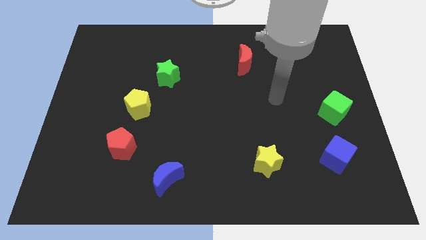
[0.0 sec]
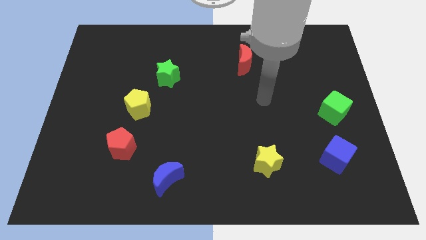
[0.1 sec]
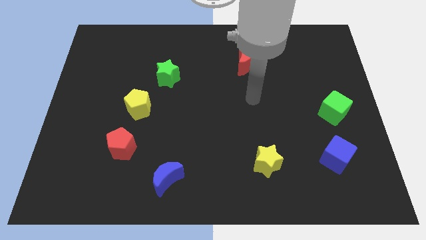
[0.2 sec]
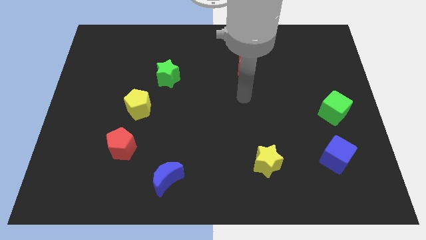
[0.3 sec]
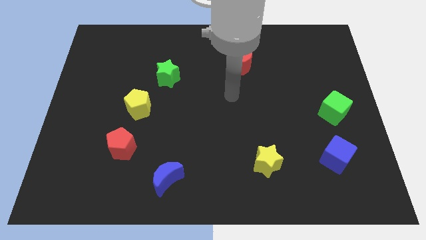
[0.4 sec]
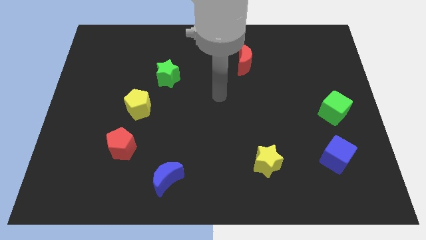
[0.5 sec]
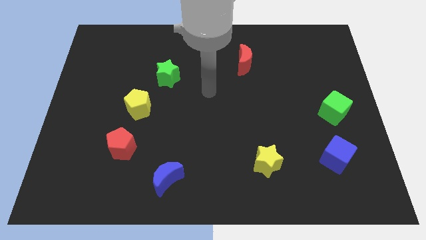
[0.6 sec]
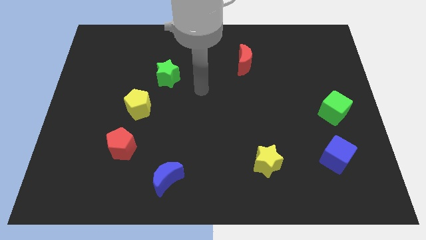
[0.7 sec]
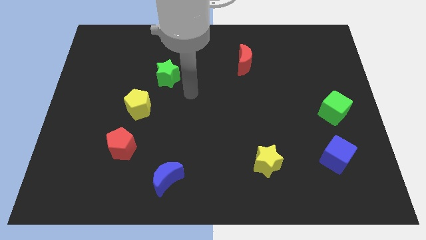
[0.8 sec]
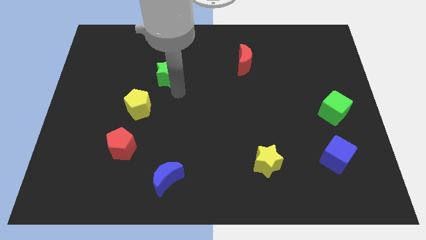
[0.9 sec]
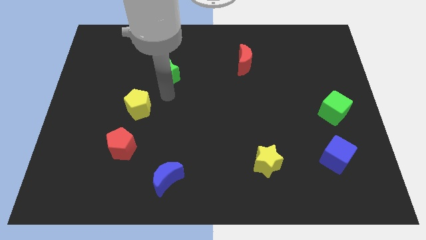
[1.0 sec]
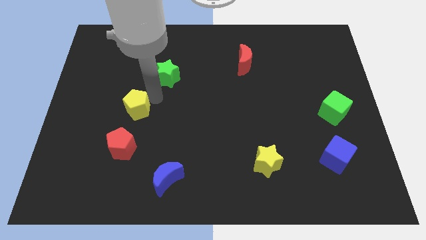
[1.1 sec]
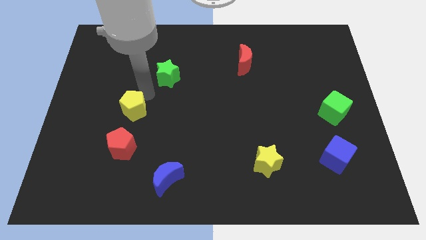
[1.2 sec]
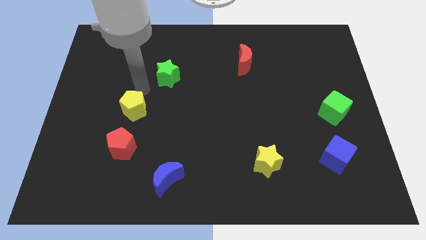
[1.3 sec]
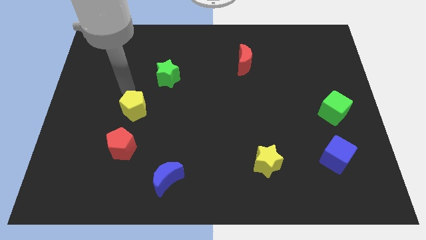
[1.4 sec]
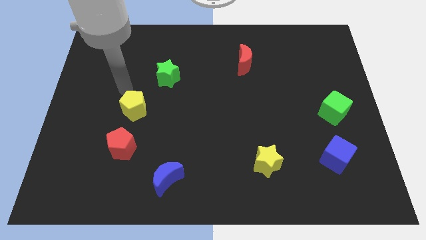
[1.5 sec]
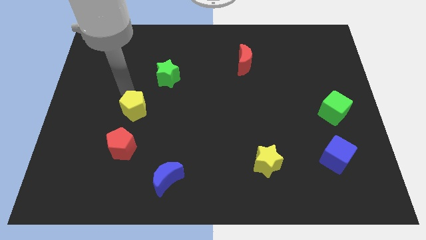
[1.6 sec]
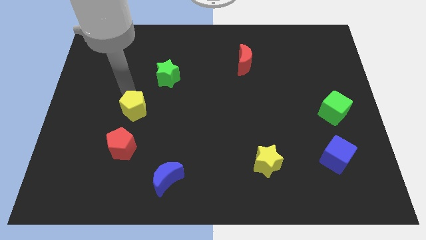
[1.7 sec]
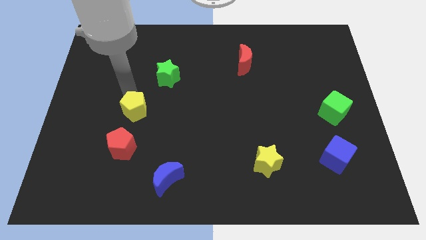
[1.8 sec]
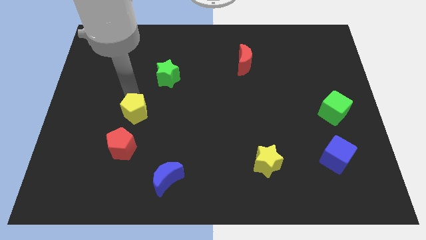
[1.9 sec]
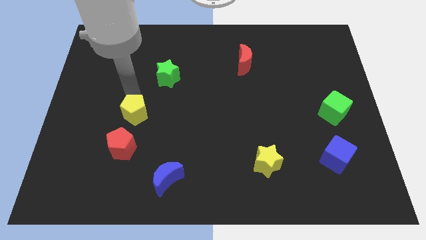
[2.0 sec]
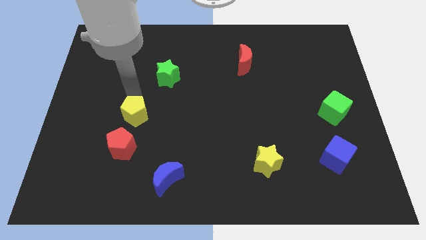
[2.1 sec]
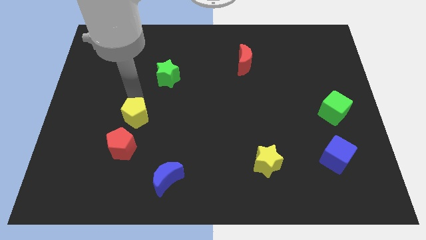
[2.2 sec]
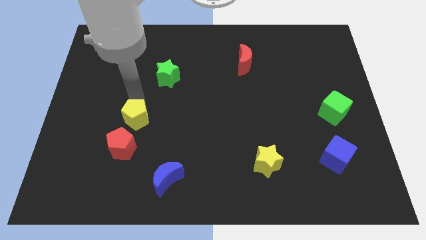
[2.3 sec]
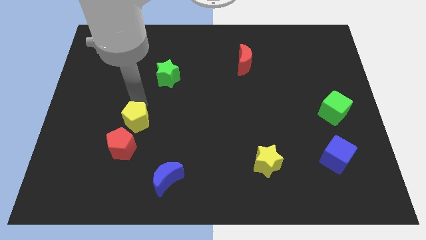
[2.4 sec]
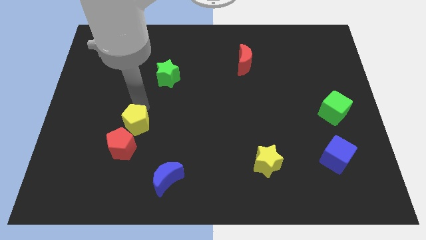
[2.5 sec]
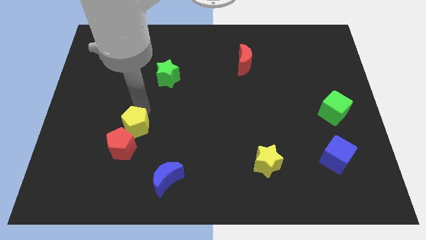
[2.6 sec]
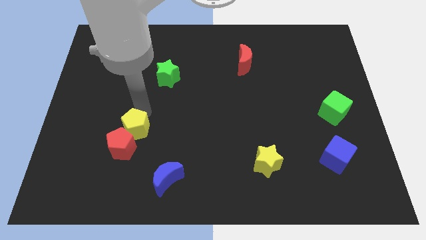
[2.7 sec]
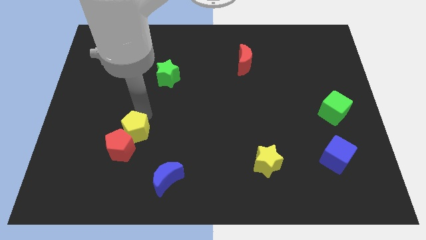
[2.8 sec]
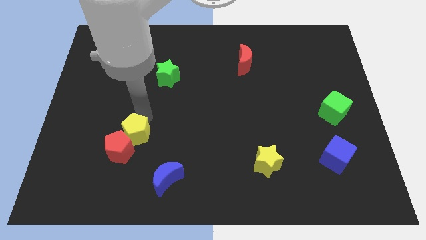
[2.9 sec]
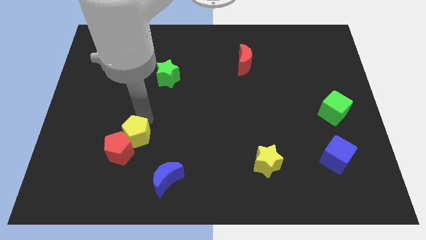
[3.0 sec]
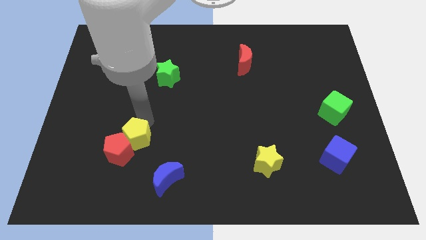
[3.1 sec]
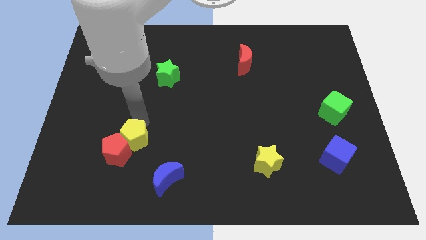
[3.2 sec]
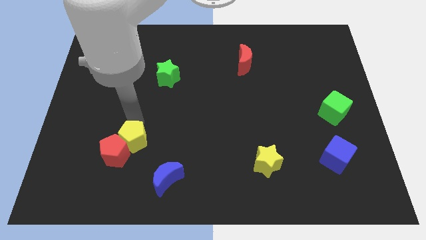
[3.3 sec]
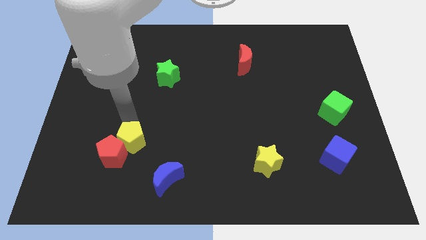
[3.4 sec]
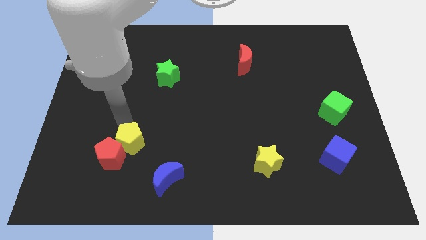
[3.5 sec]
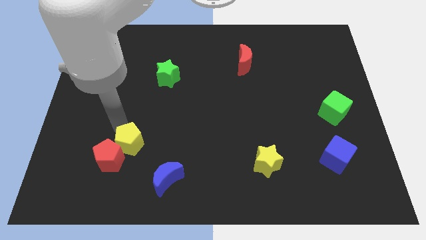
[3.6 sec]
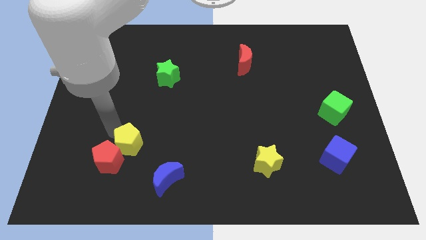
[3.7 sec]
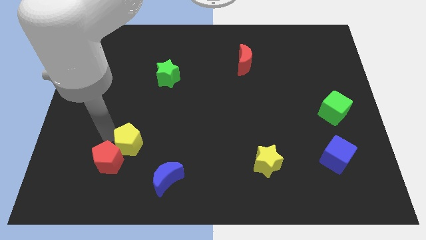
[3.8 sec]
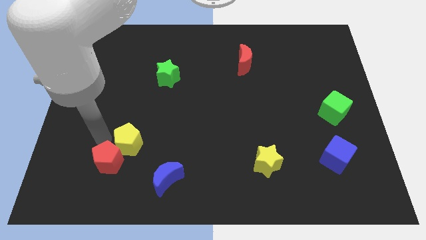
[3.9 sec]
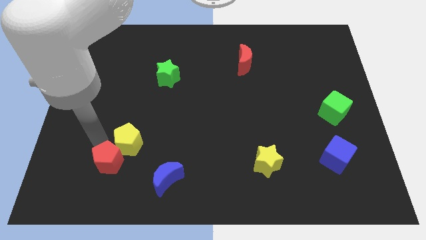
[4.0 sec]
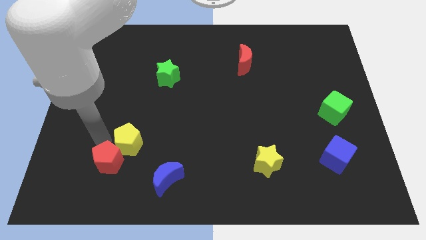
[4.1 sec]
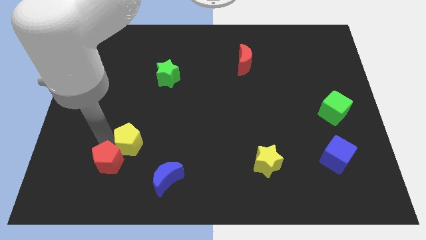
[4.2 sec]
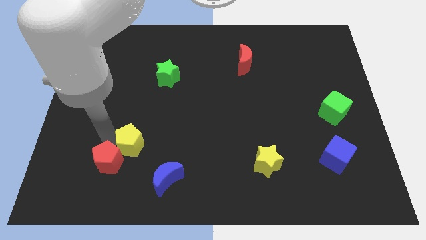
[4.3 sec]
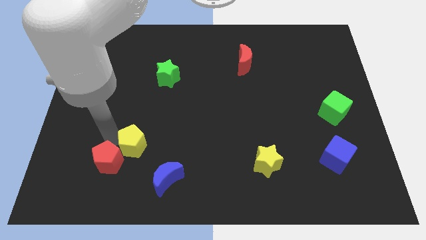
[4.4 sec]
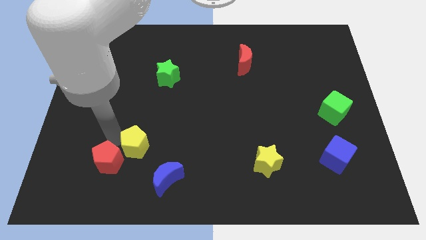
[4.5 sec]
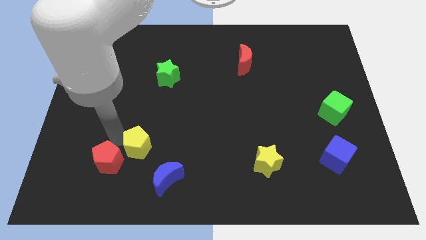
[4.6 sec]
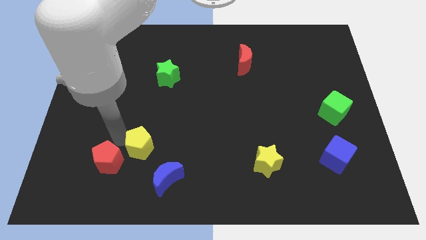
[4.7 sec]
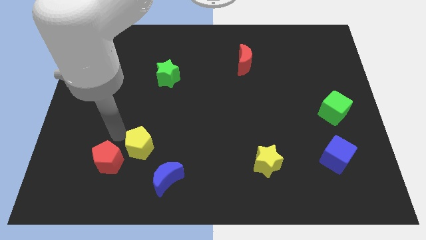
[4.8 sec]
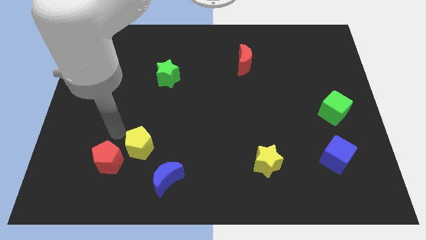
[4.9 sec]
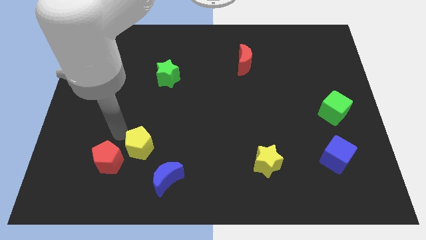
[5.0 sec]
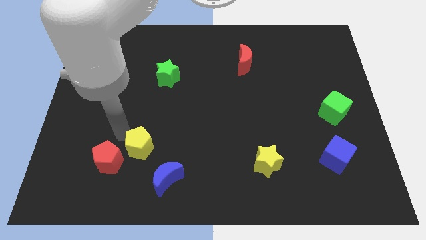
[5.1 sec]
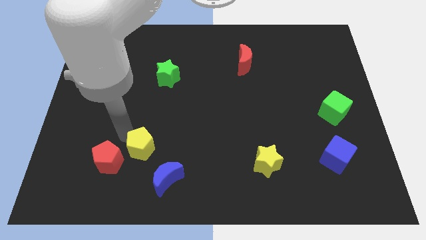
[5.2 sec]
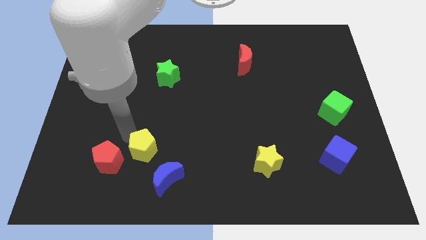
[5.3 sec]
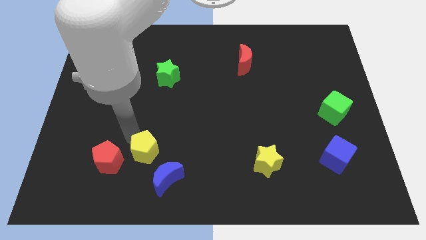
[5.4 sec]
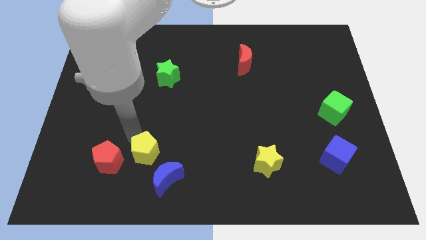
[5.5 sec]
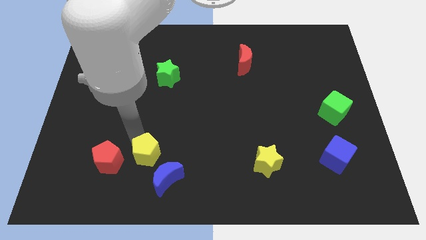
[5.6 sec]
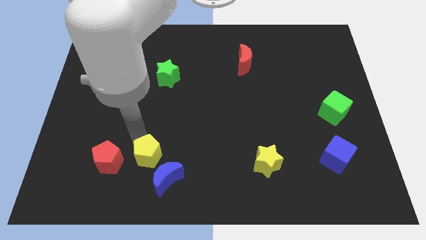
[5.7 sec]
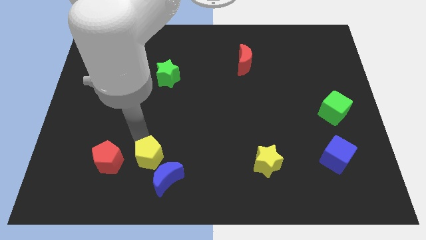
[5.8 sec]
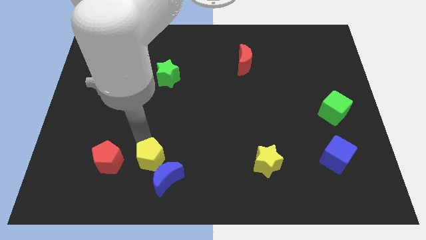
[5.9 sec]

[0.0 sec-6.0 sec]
slide the yellow pentagon towards the blue moon

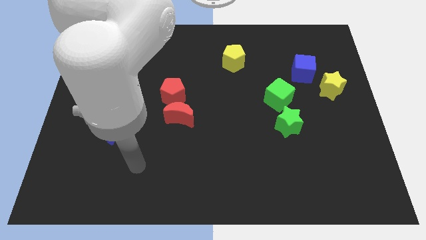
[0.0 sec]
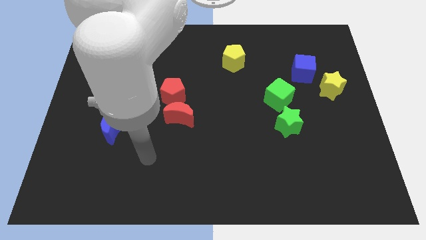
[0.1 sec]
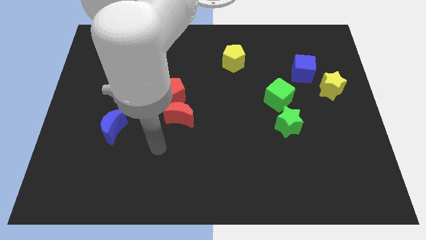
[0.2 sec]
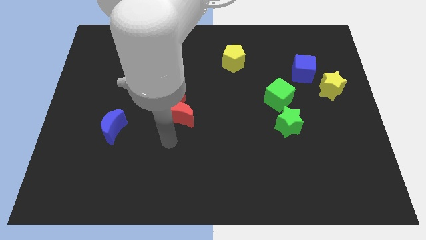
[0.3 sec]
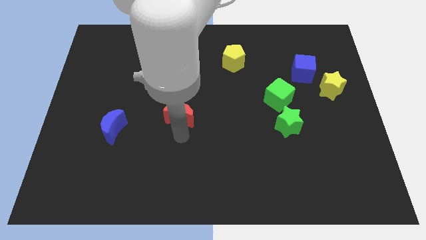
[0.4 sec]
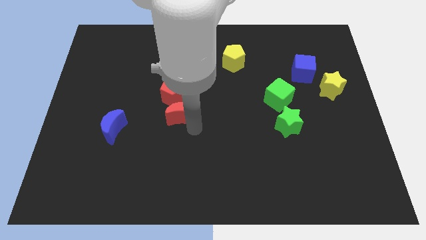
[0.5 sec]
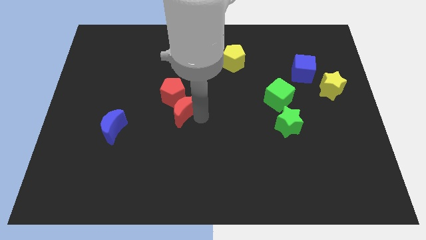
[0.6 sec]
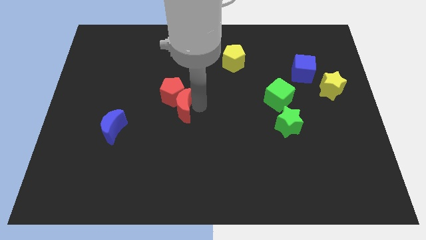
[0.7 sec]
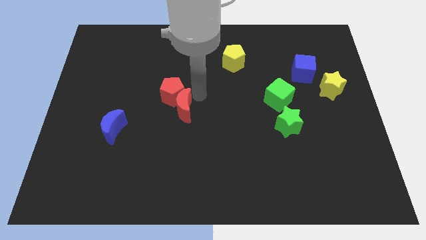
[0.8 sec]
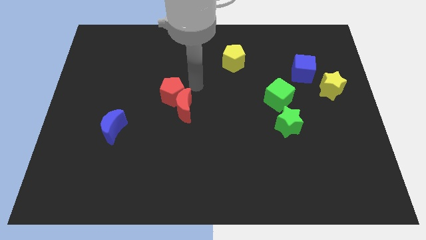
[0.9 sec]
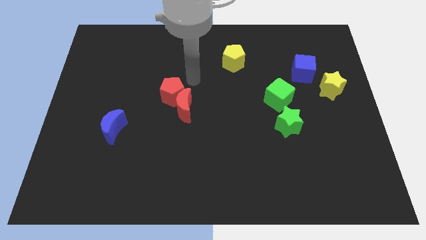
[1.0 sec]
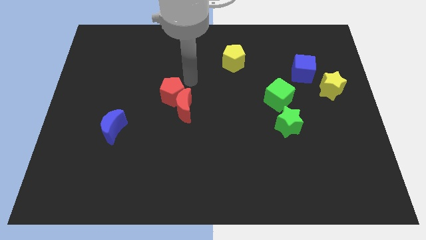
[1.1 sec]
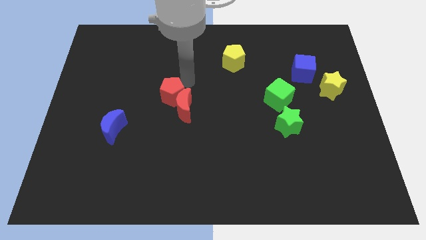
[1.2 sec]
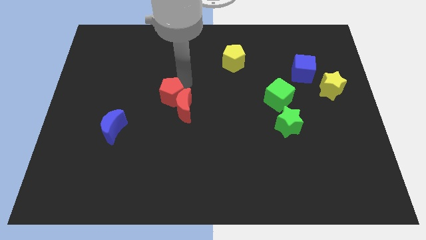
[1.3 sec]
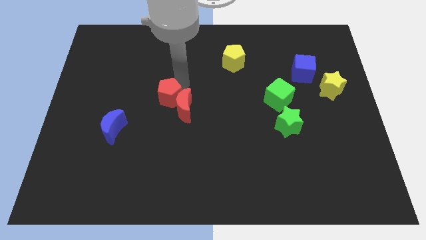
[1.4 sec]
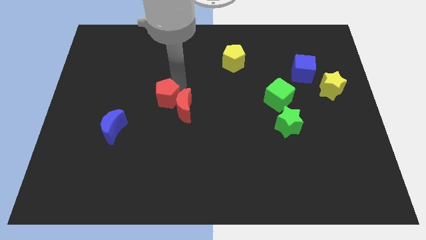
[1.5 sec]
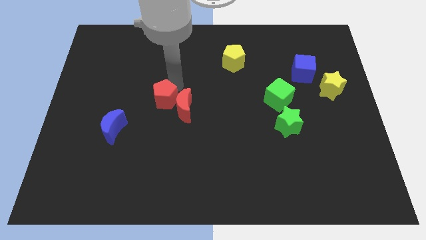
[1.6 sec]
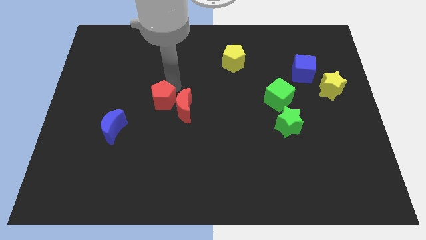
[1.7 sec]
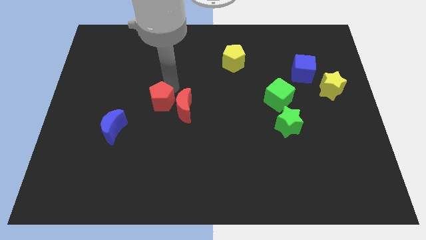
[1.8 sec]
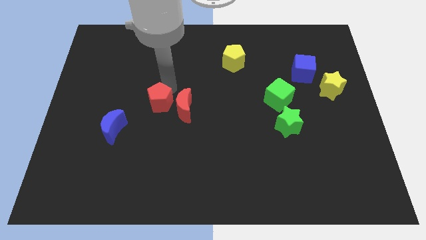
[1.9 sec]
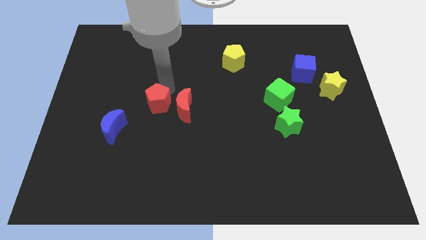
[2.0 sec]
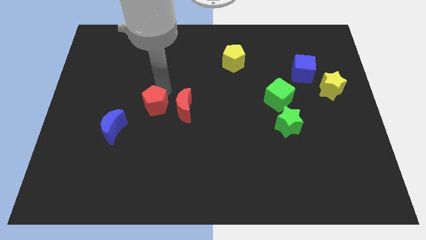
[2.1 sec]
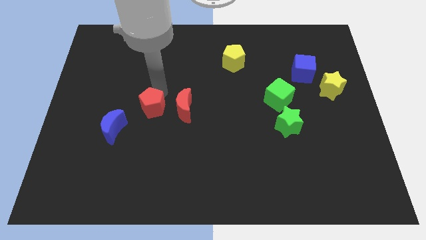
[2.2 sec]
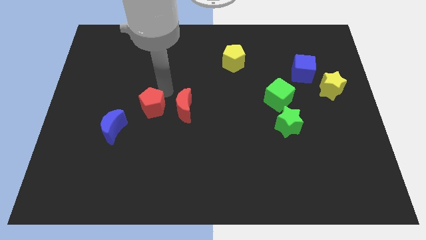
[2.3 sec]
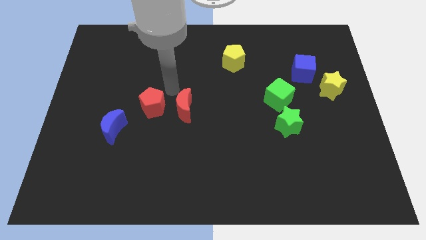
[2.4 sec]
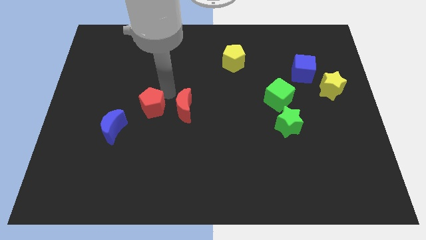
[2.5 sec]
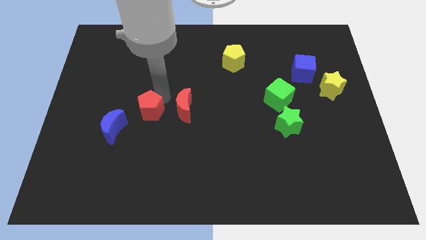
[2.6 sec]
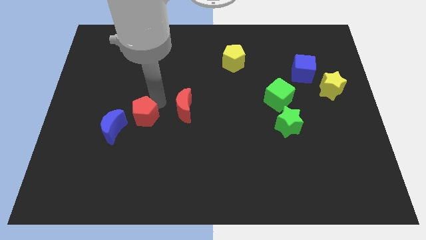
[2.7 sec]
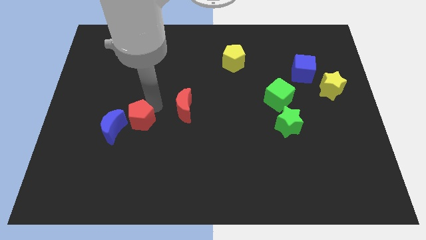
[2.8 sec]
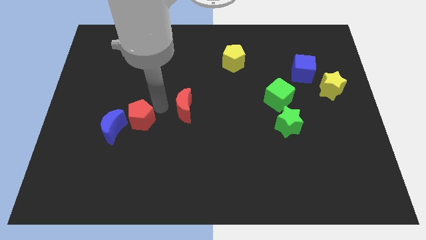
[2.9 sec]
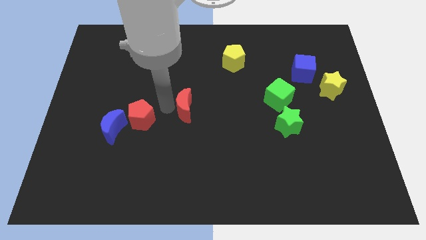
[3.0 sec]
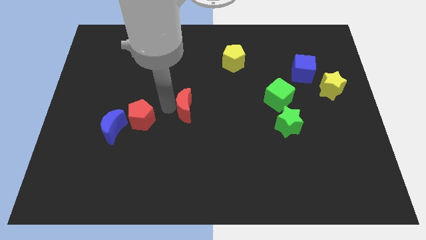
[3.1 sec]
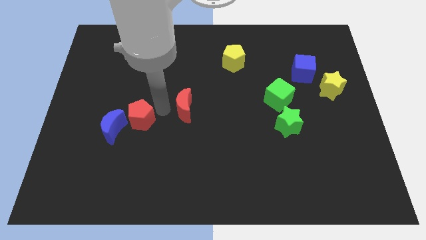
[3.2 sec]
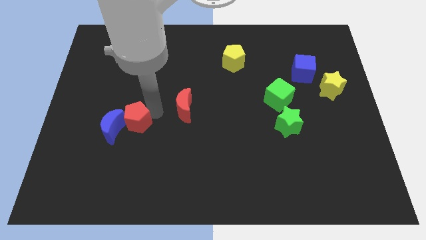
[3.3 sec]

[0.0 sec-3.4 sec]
slide the red pentagon to the blue moon
